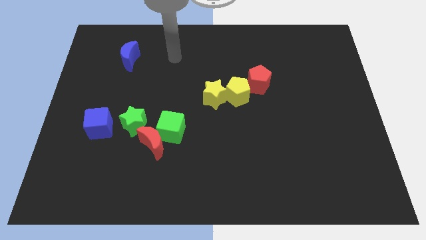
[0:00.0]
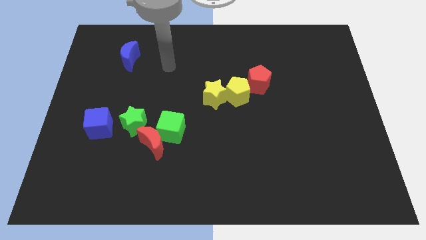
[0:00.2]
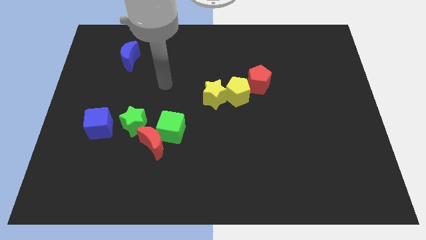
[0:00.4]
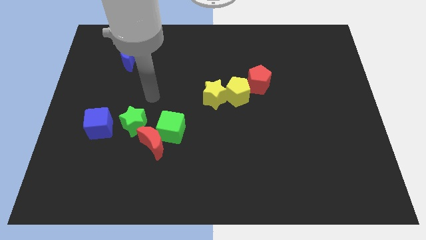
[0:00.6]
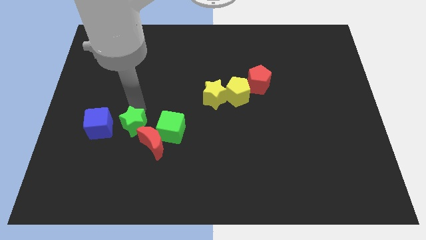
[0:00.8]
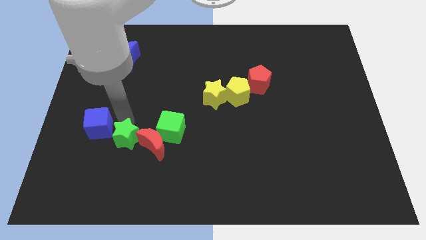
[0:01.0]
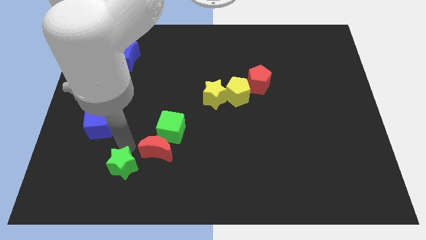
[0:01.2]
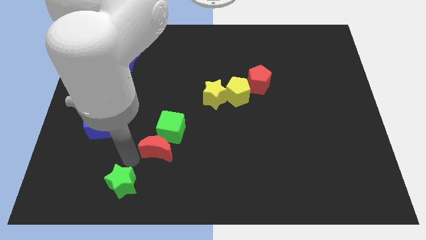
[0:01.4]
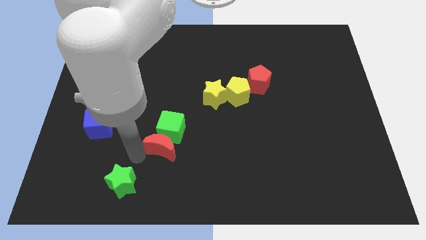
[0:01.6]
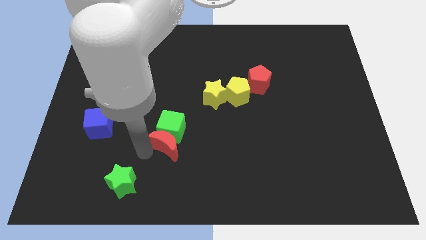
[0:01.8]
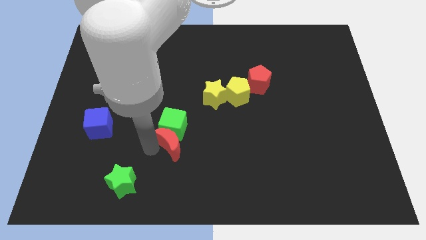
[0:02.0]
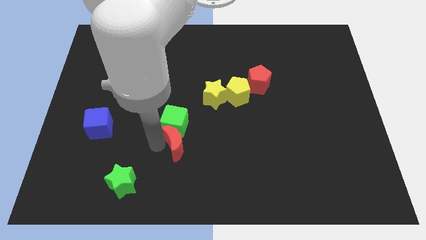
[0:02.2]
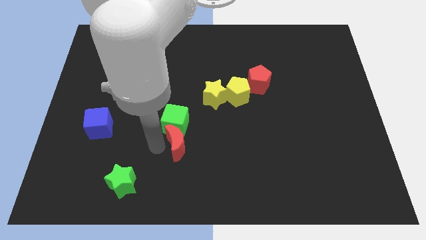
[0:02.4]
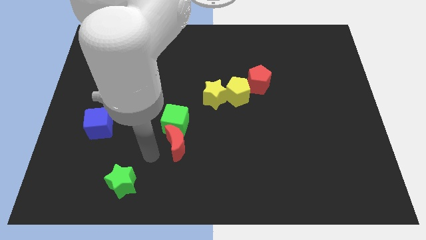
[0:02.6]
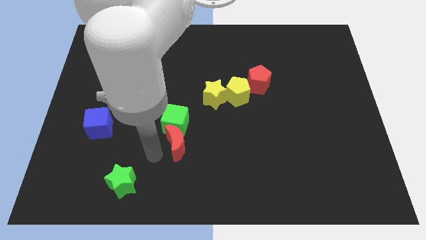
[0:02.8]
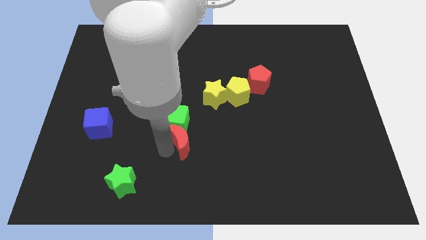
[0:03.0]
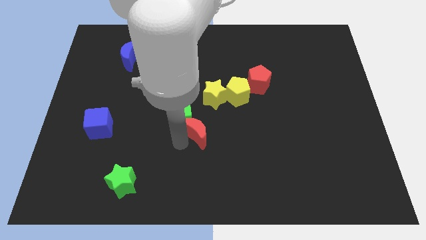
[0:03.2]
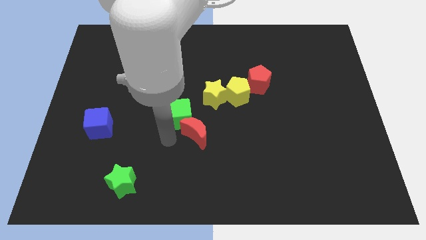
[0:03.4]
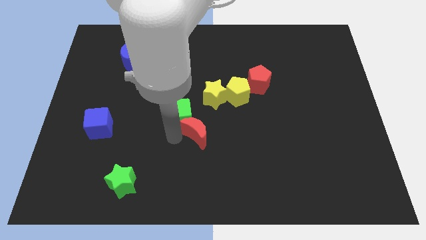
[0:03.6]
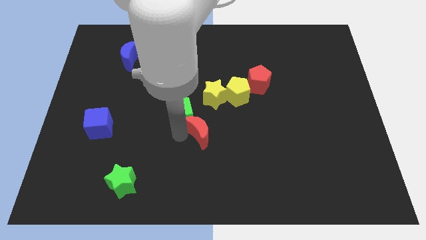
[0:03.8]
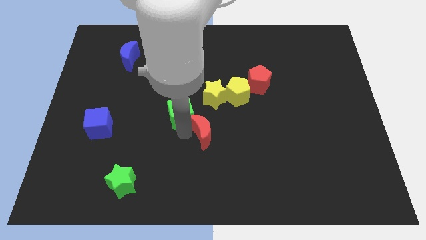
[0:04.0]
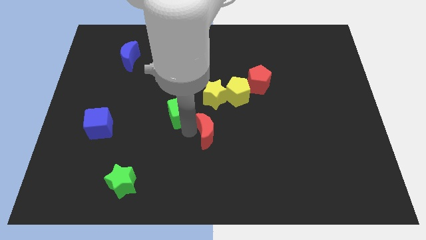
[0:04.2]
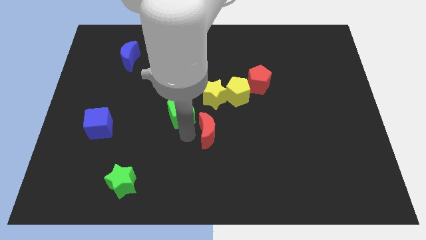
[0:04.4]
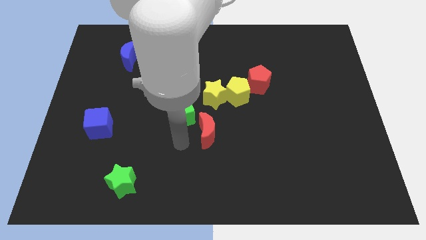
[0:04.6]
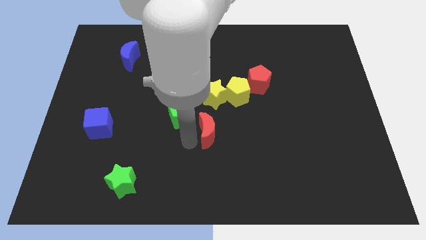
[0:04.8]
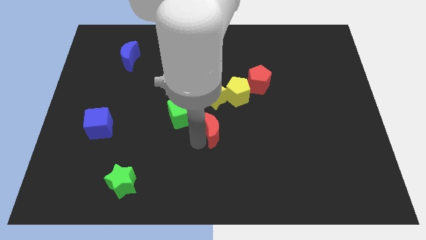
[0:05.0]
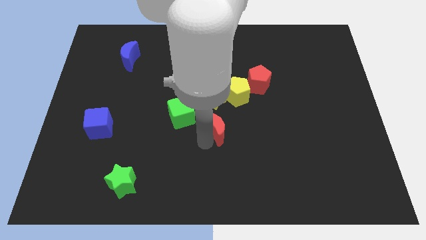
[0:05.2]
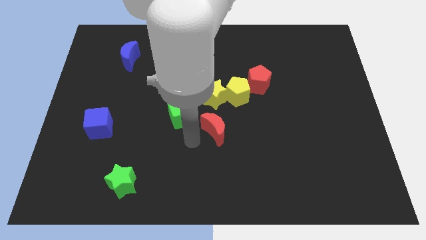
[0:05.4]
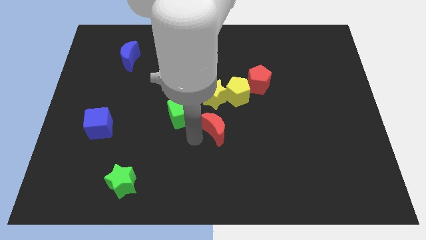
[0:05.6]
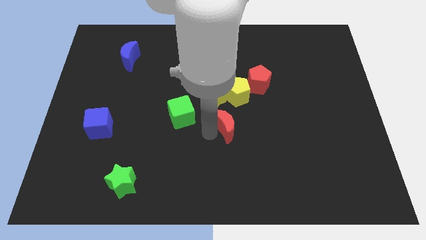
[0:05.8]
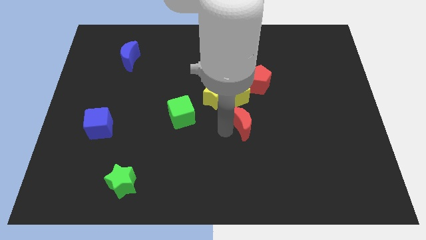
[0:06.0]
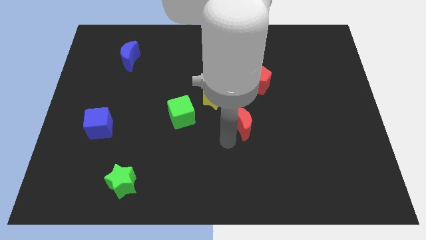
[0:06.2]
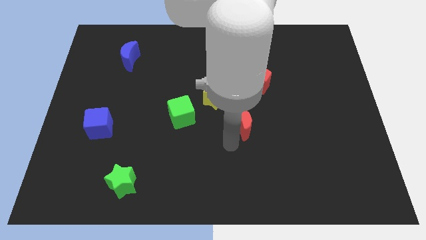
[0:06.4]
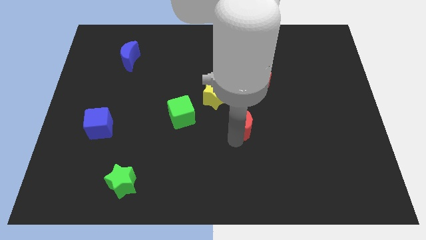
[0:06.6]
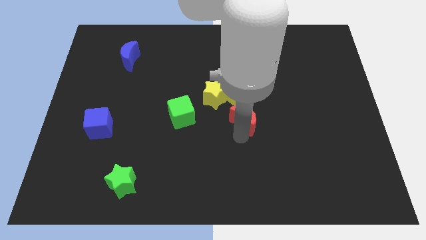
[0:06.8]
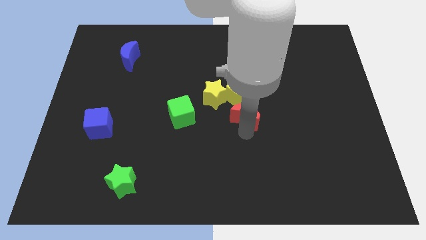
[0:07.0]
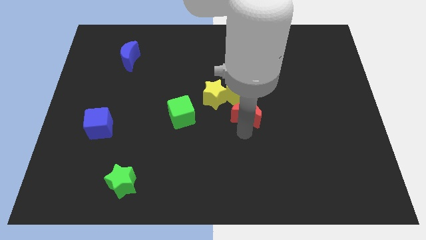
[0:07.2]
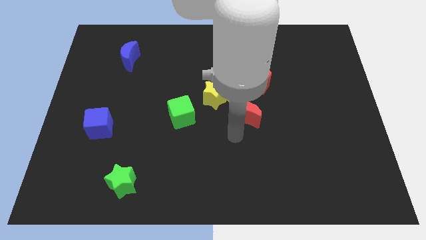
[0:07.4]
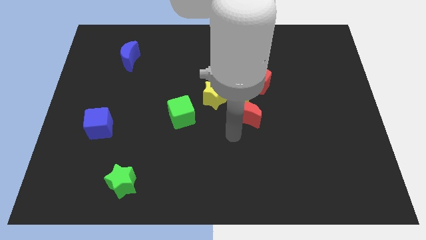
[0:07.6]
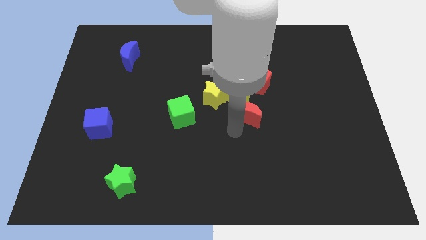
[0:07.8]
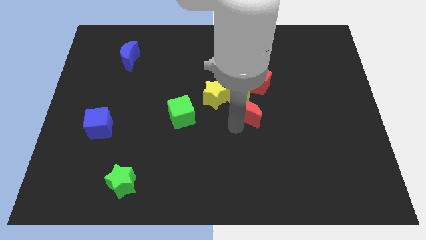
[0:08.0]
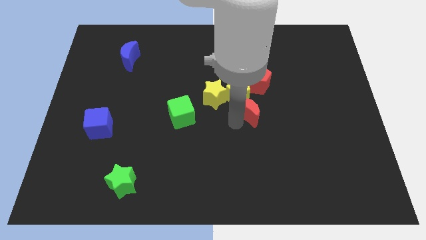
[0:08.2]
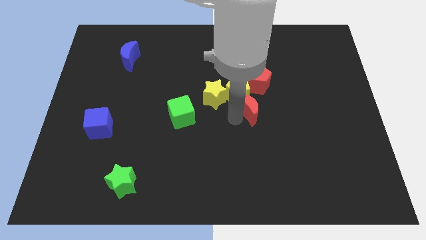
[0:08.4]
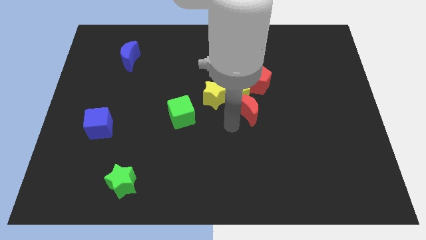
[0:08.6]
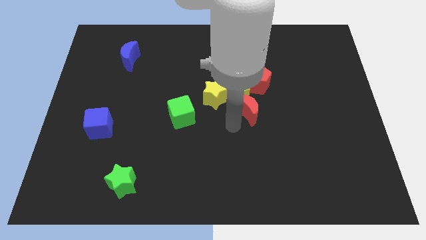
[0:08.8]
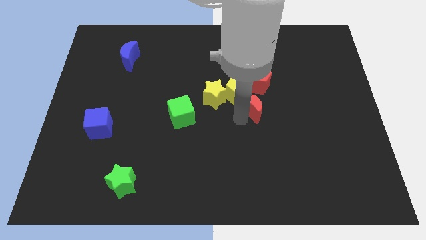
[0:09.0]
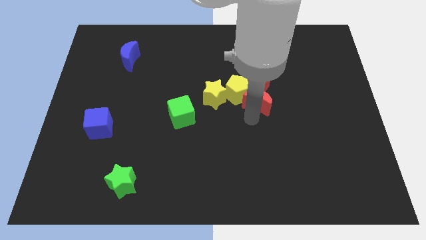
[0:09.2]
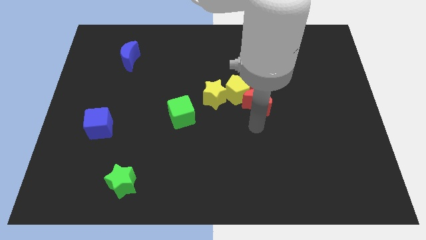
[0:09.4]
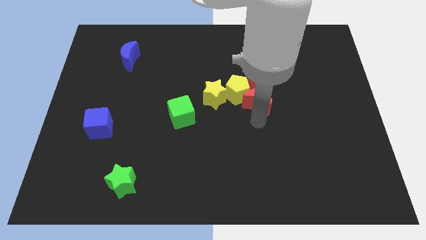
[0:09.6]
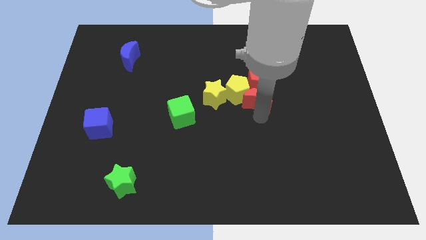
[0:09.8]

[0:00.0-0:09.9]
push the red moon next to the red pentagon

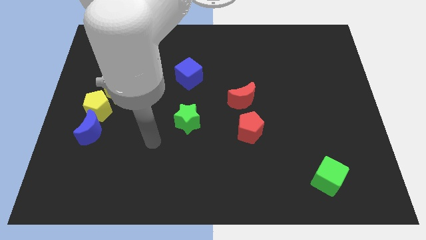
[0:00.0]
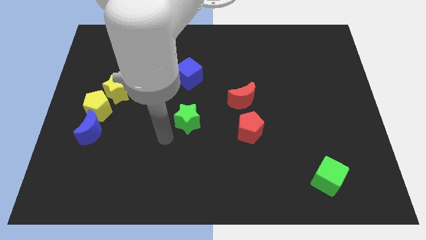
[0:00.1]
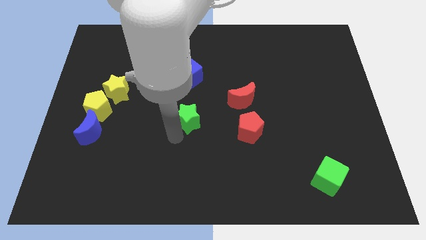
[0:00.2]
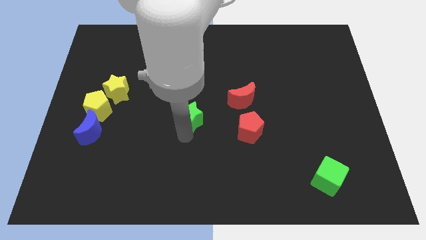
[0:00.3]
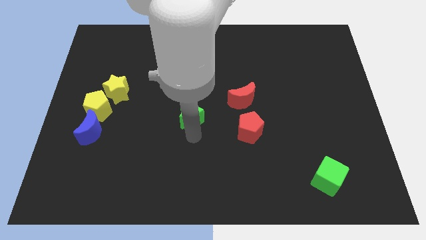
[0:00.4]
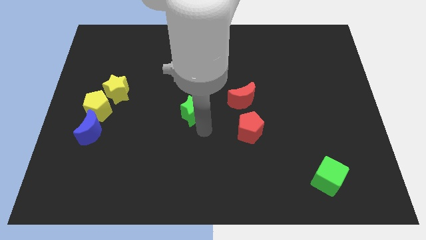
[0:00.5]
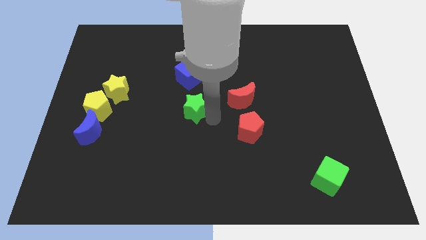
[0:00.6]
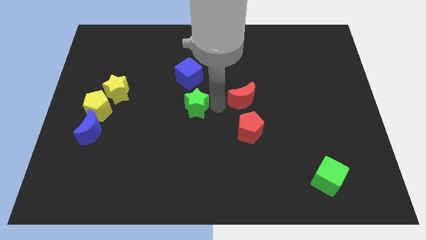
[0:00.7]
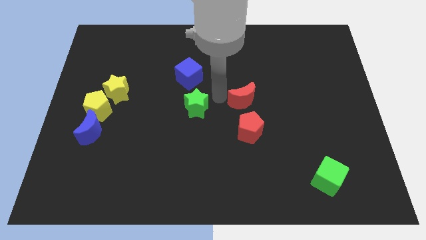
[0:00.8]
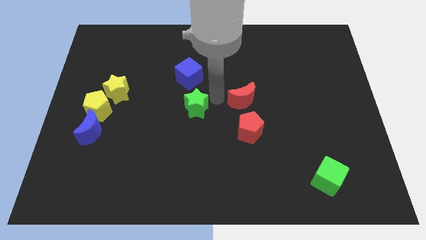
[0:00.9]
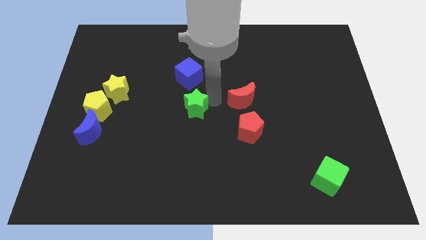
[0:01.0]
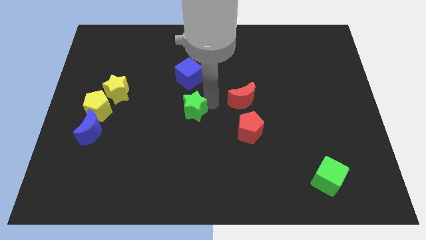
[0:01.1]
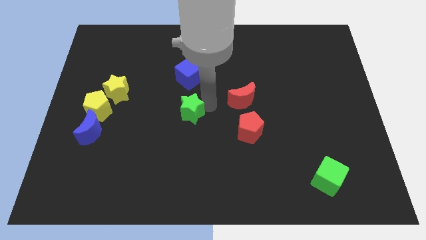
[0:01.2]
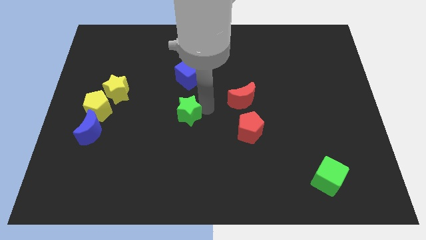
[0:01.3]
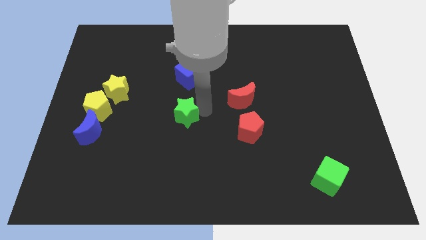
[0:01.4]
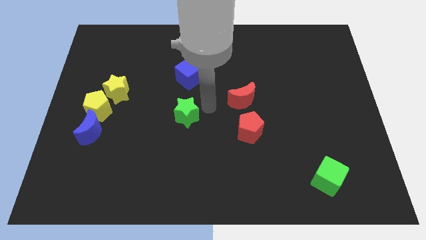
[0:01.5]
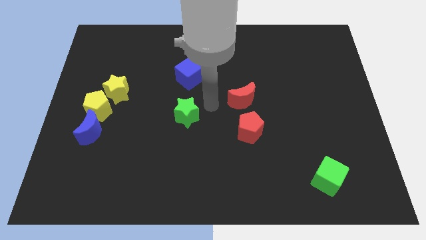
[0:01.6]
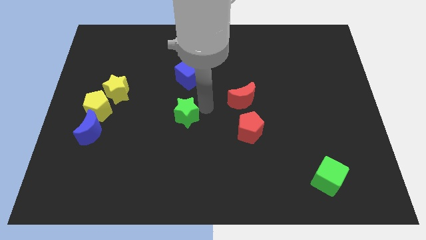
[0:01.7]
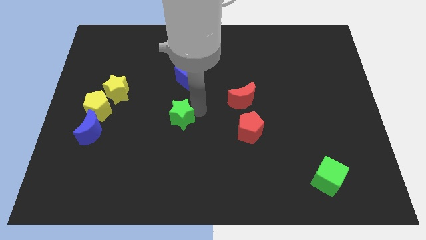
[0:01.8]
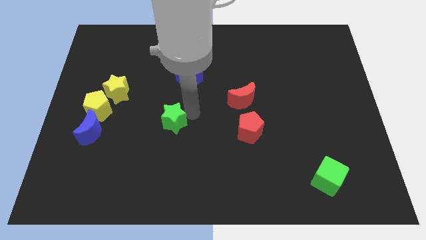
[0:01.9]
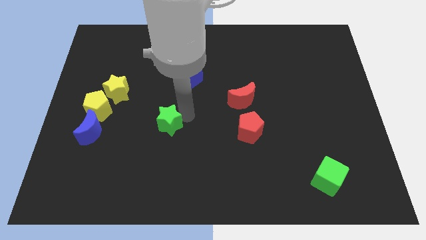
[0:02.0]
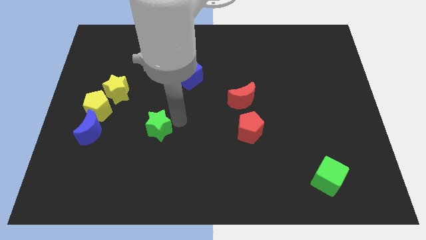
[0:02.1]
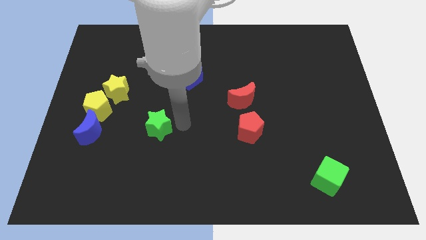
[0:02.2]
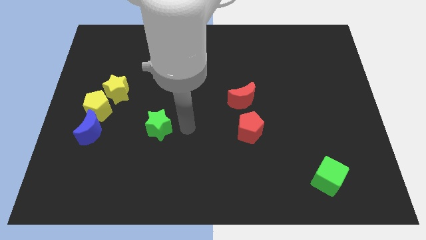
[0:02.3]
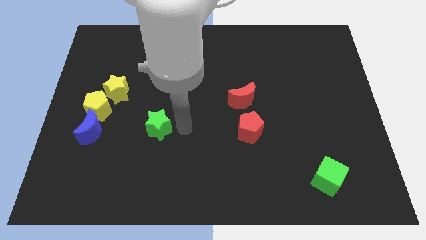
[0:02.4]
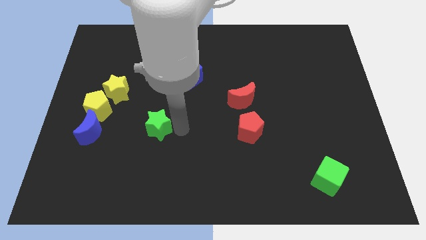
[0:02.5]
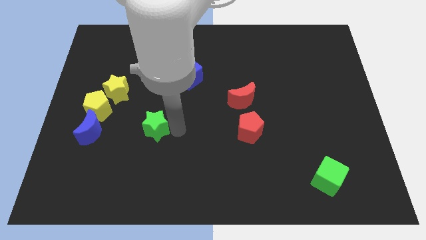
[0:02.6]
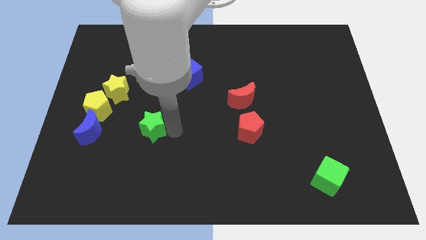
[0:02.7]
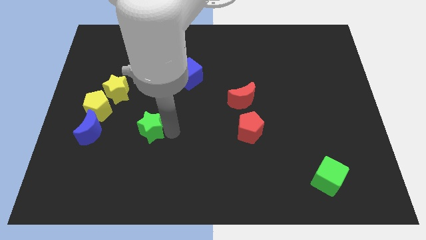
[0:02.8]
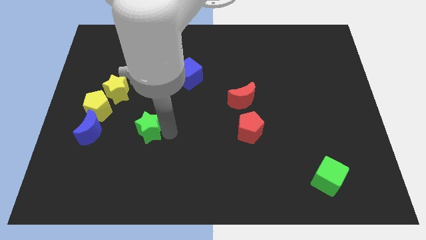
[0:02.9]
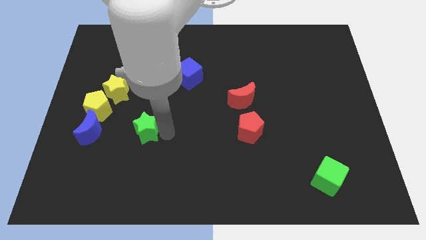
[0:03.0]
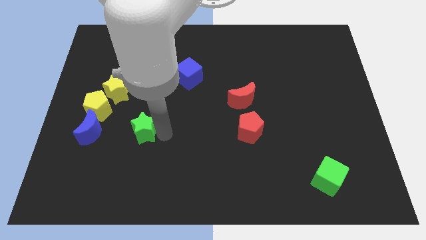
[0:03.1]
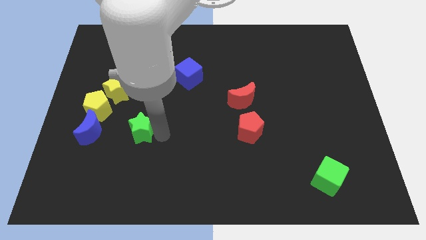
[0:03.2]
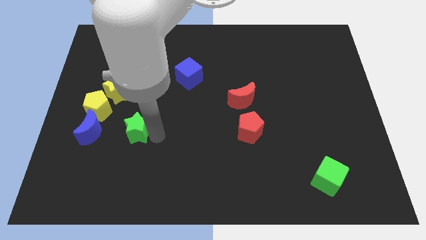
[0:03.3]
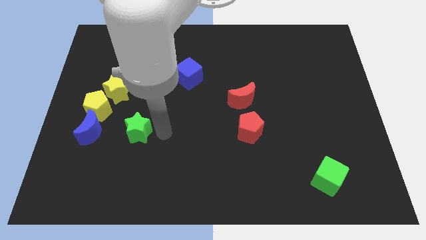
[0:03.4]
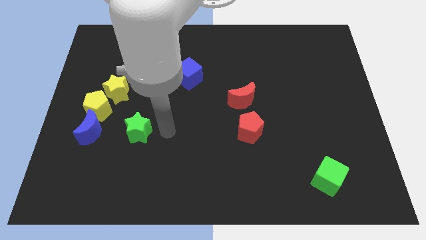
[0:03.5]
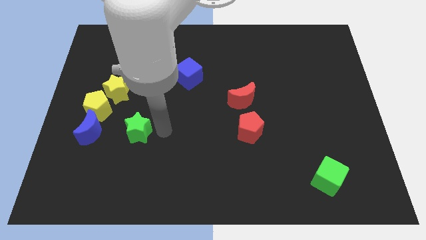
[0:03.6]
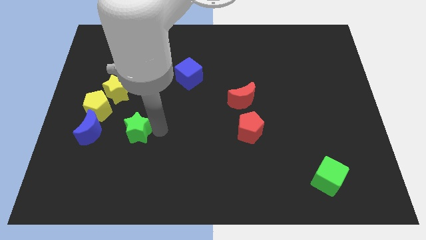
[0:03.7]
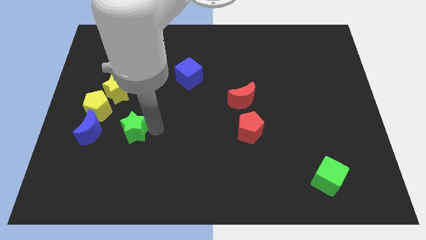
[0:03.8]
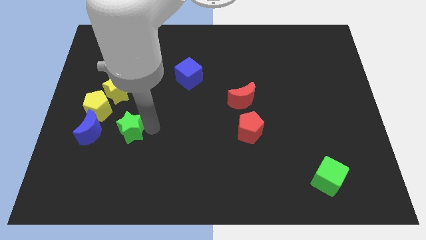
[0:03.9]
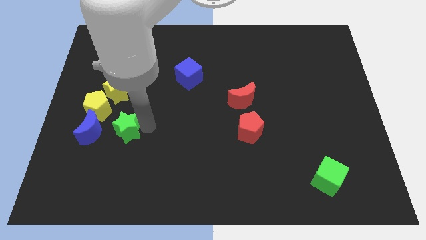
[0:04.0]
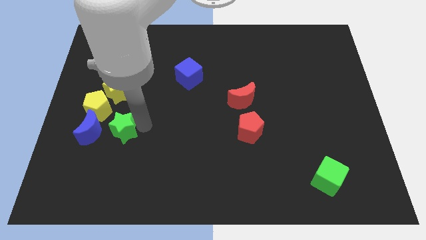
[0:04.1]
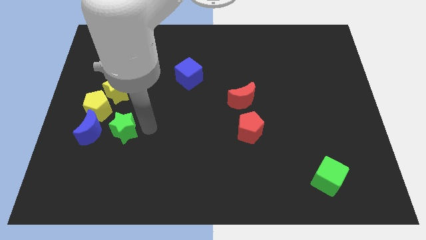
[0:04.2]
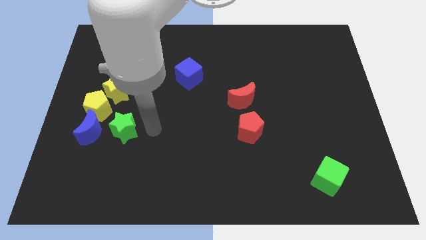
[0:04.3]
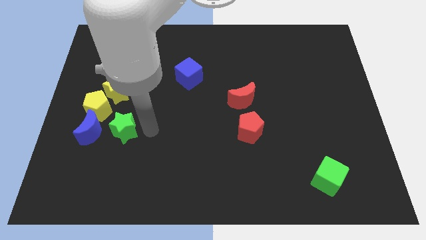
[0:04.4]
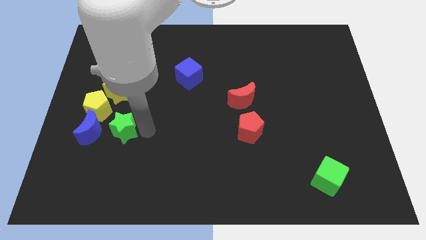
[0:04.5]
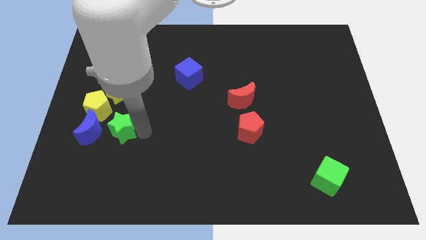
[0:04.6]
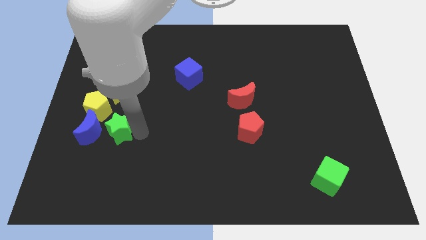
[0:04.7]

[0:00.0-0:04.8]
push the green star next to the blue moon
